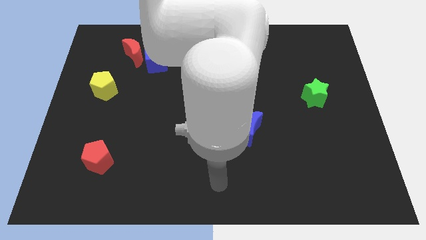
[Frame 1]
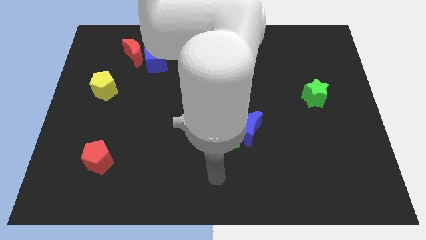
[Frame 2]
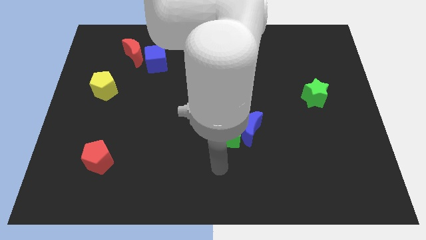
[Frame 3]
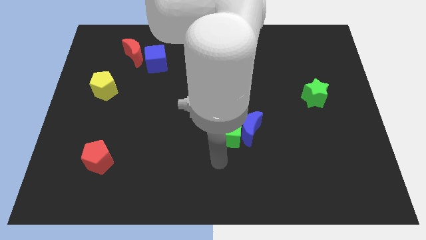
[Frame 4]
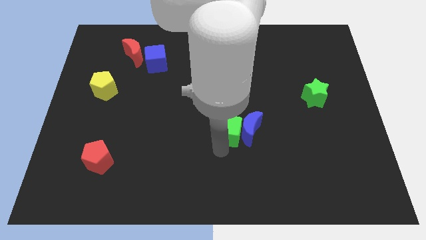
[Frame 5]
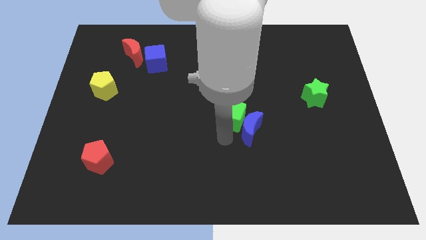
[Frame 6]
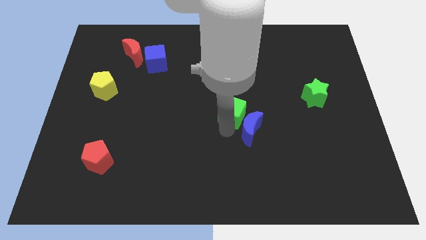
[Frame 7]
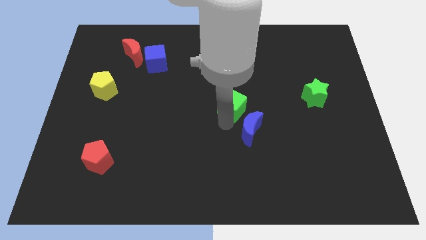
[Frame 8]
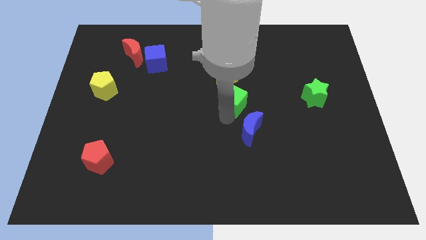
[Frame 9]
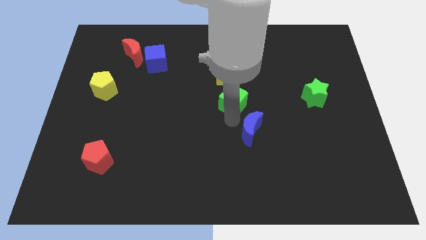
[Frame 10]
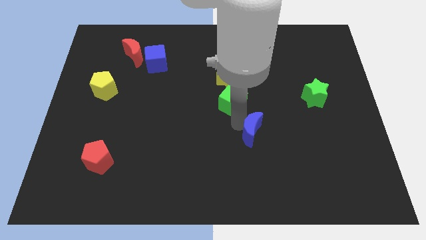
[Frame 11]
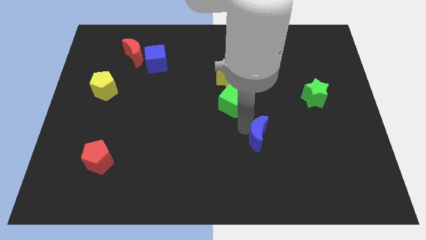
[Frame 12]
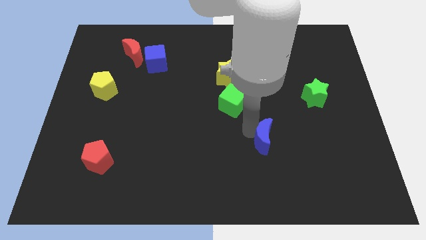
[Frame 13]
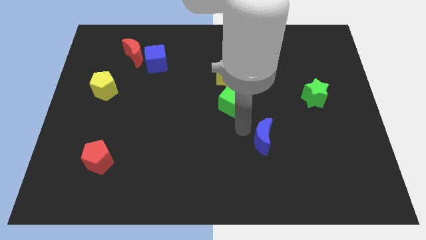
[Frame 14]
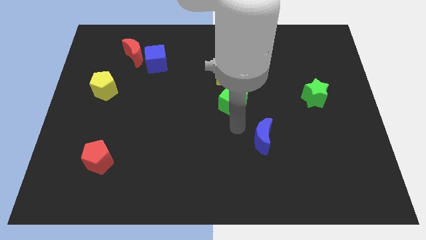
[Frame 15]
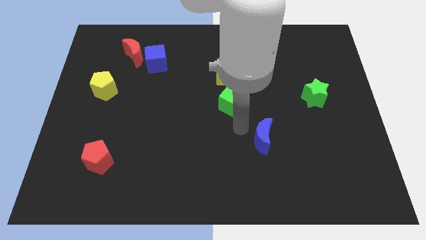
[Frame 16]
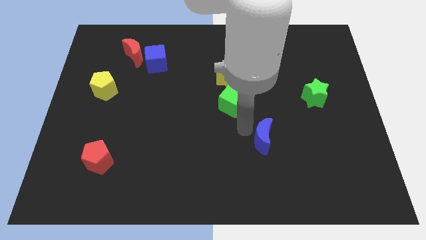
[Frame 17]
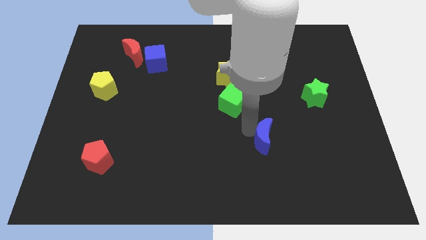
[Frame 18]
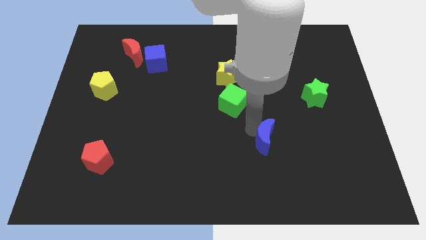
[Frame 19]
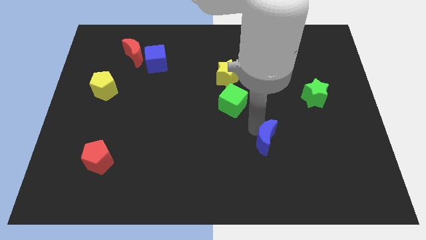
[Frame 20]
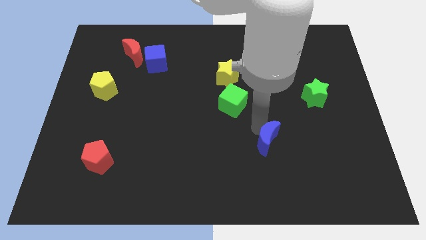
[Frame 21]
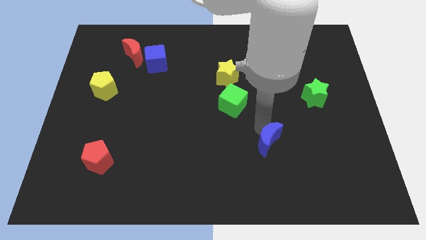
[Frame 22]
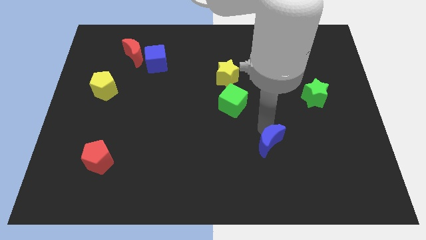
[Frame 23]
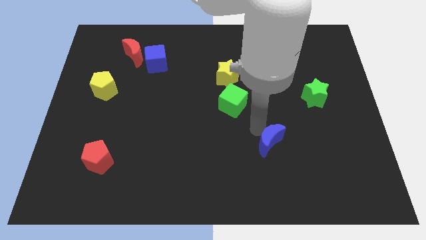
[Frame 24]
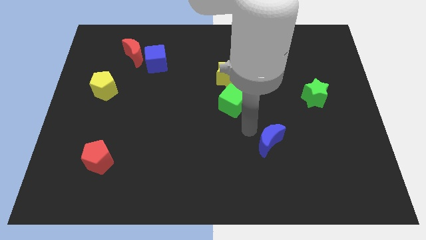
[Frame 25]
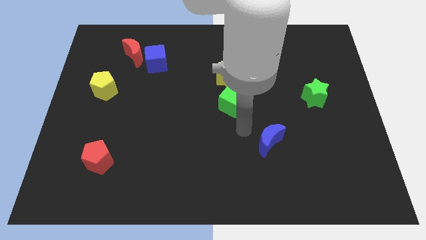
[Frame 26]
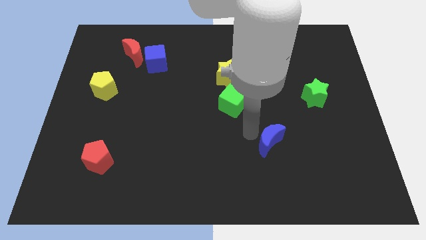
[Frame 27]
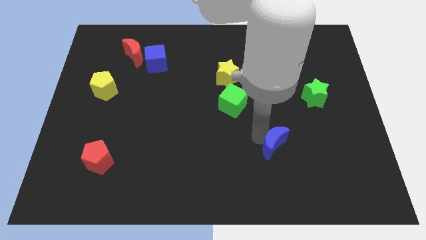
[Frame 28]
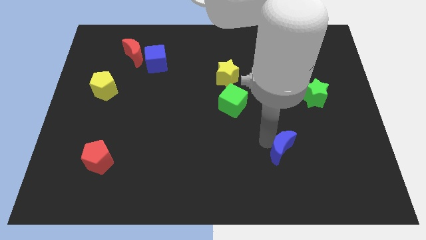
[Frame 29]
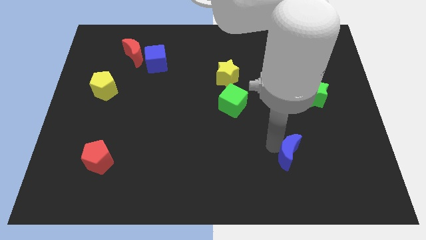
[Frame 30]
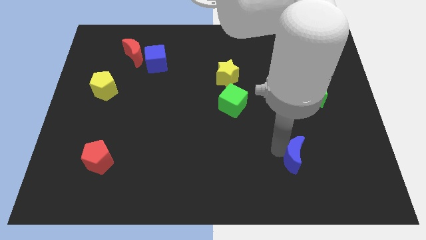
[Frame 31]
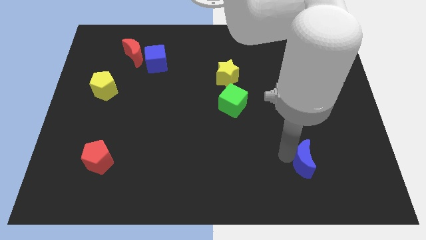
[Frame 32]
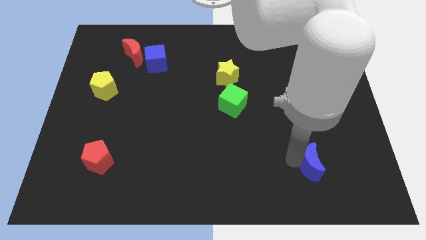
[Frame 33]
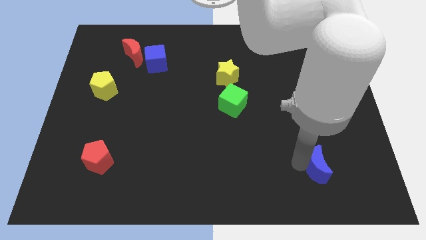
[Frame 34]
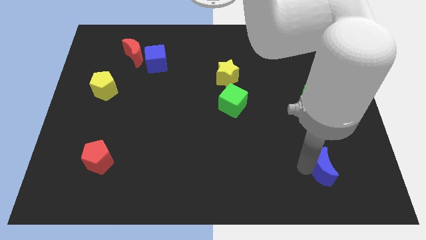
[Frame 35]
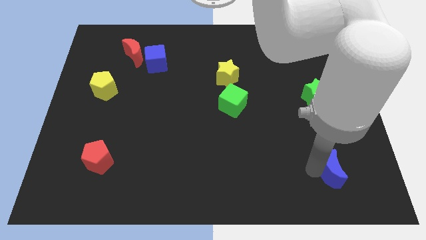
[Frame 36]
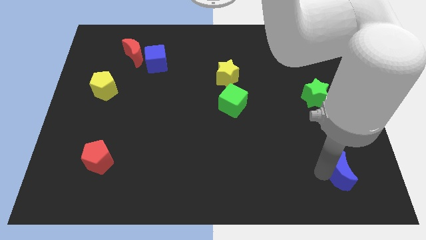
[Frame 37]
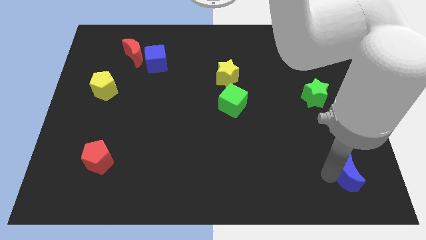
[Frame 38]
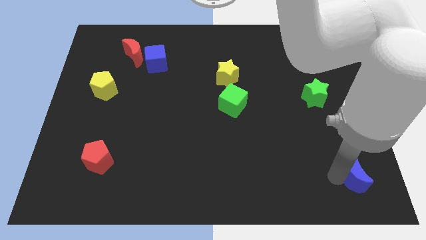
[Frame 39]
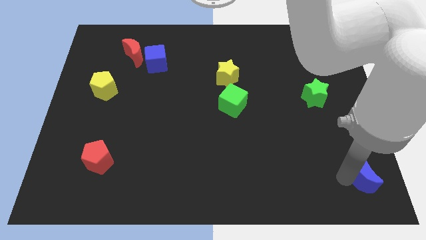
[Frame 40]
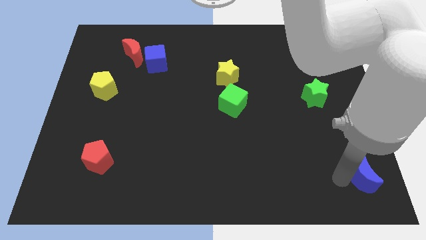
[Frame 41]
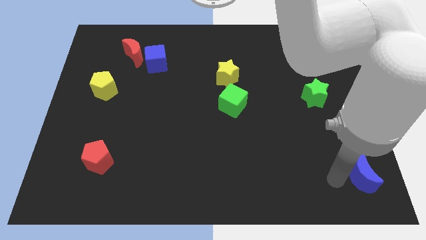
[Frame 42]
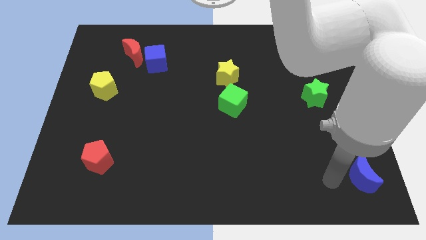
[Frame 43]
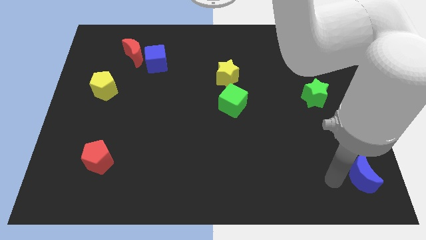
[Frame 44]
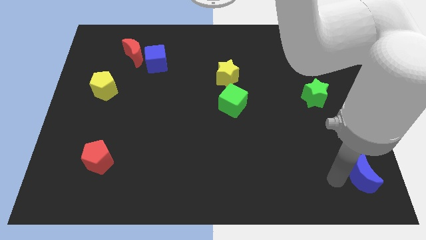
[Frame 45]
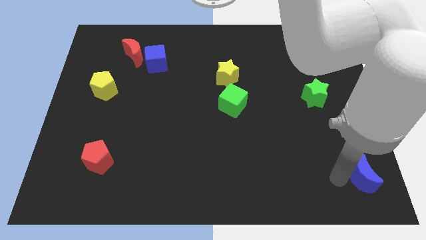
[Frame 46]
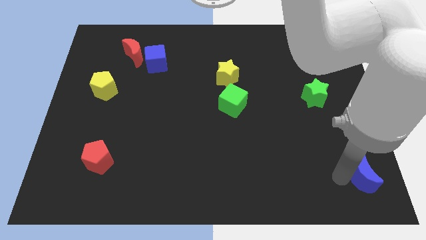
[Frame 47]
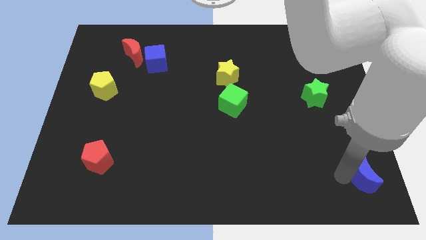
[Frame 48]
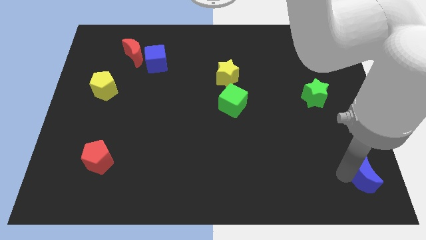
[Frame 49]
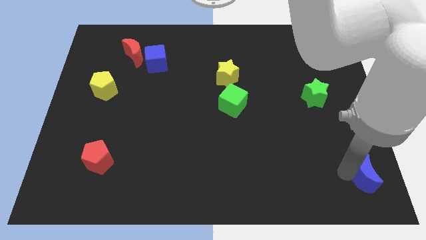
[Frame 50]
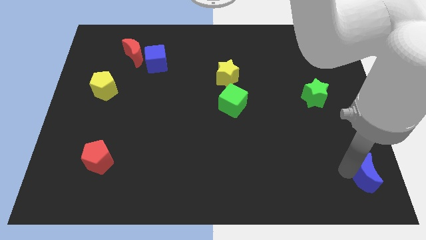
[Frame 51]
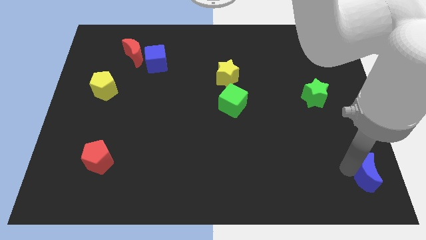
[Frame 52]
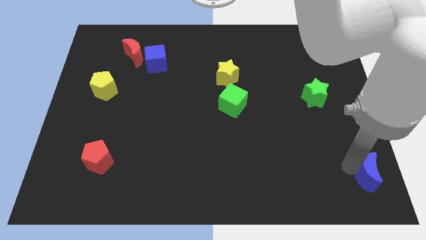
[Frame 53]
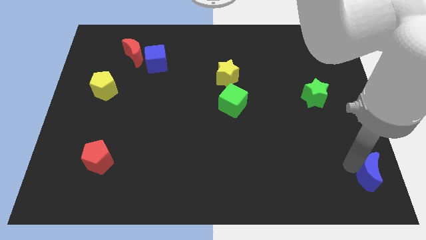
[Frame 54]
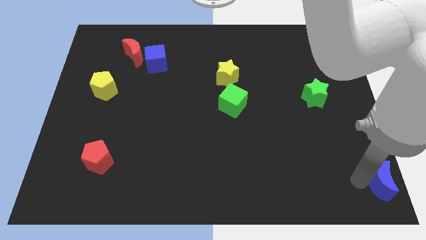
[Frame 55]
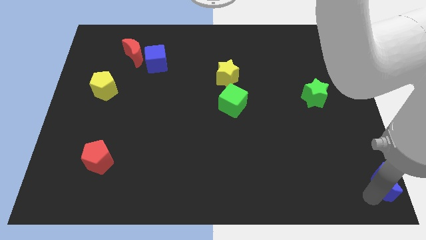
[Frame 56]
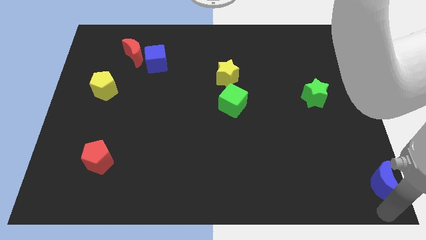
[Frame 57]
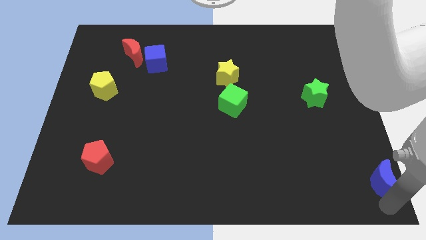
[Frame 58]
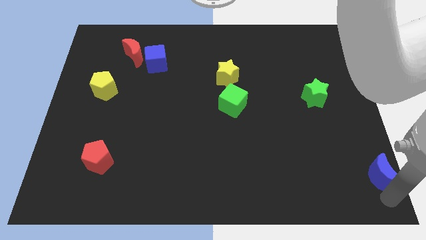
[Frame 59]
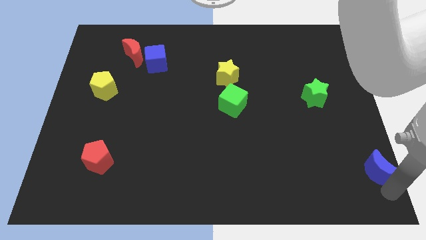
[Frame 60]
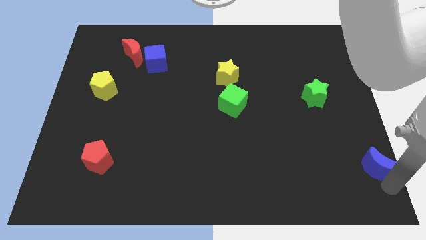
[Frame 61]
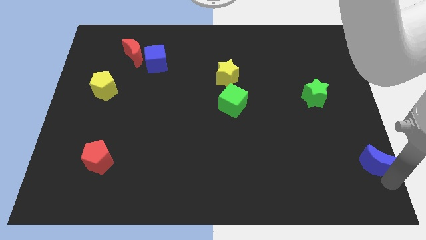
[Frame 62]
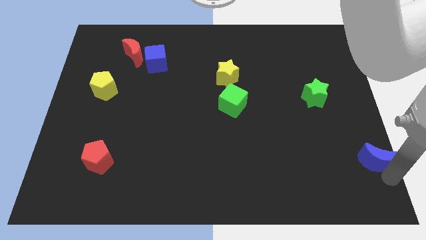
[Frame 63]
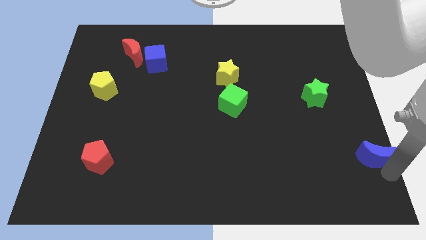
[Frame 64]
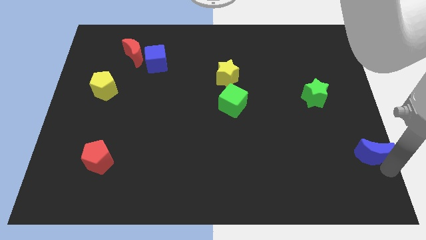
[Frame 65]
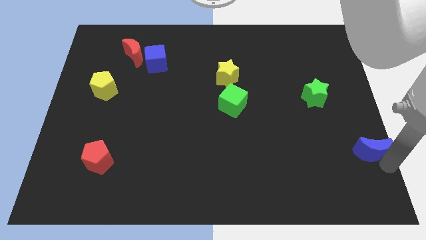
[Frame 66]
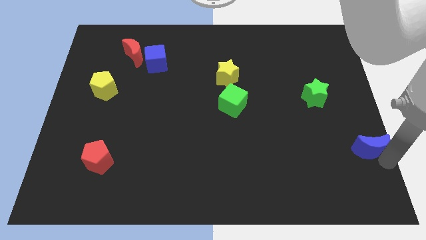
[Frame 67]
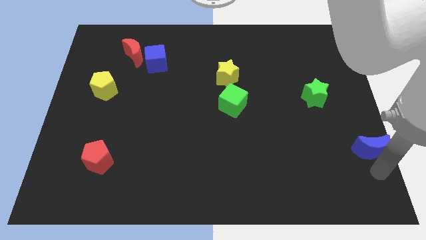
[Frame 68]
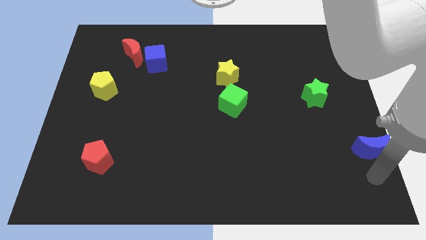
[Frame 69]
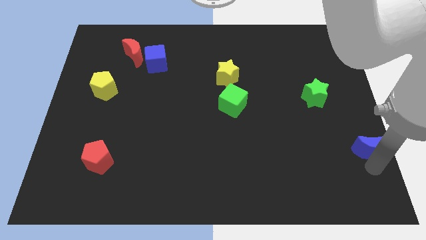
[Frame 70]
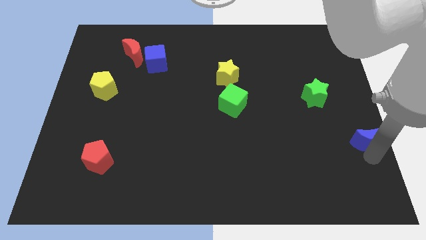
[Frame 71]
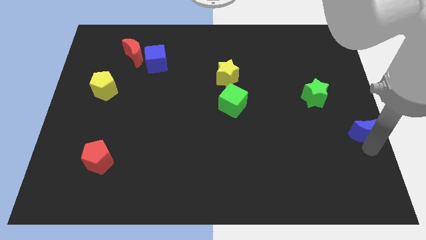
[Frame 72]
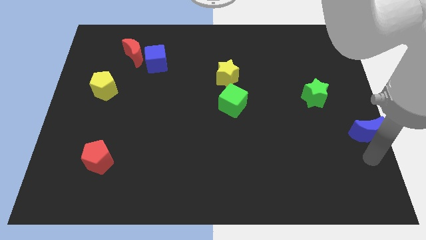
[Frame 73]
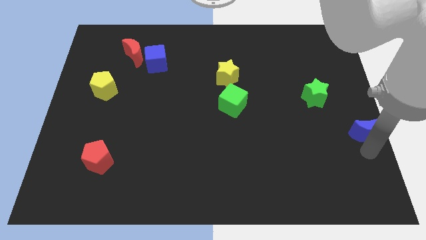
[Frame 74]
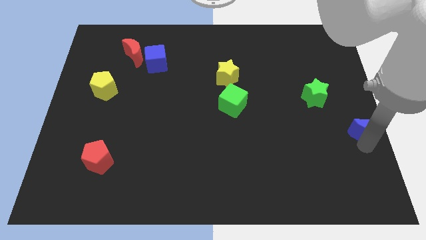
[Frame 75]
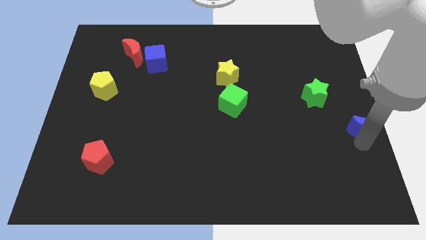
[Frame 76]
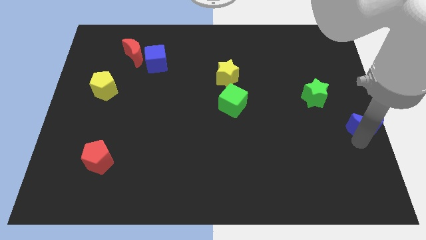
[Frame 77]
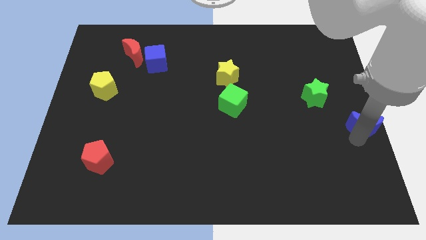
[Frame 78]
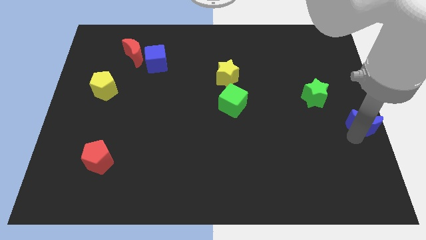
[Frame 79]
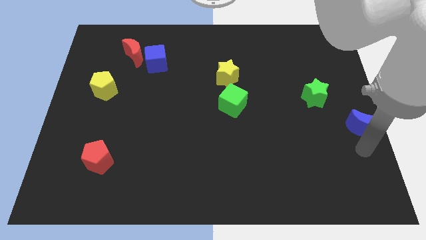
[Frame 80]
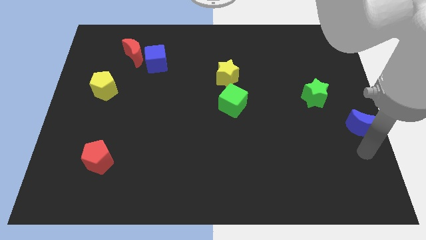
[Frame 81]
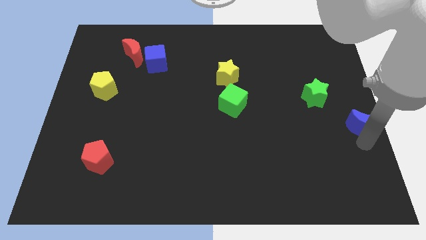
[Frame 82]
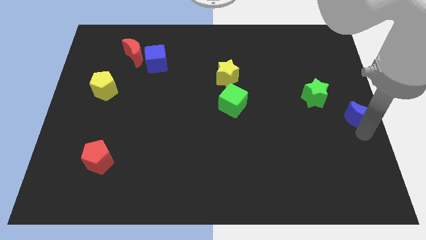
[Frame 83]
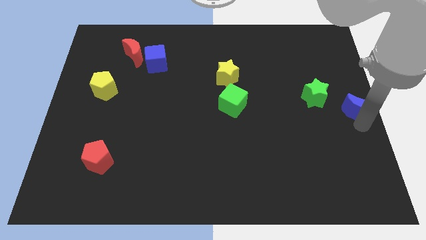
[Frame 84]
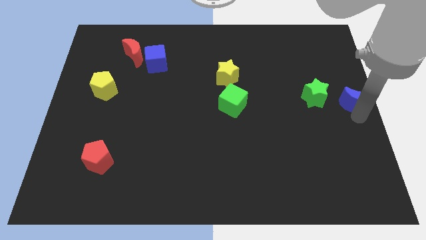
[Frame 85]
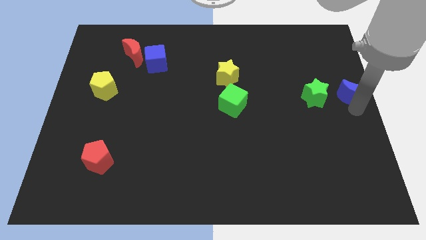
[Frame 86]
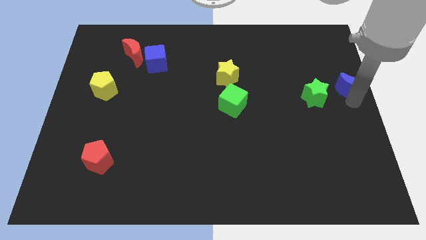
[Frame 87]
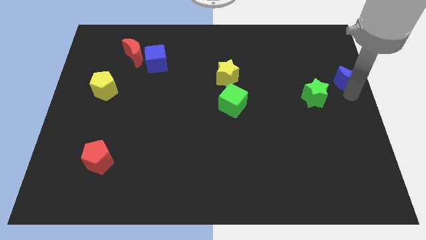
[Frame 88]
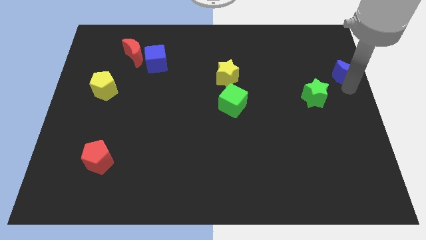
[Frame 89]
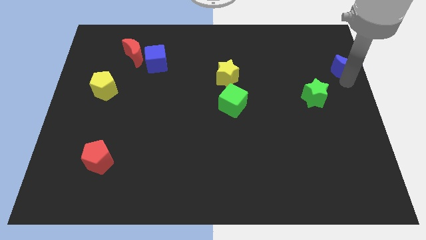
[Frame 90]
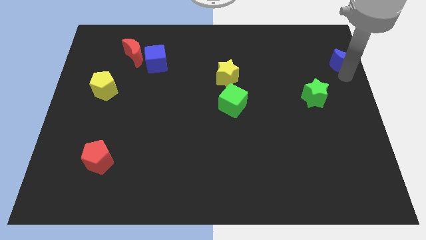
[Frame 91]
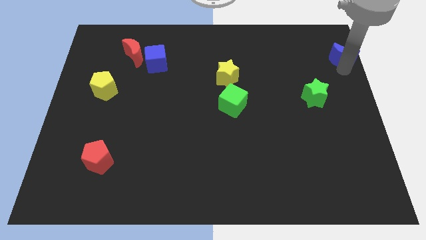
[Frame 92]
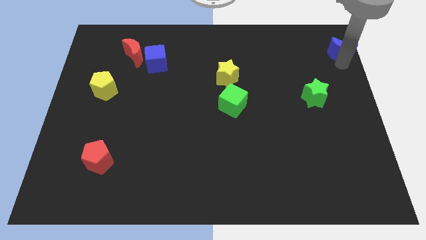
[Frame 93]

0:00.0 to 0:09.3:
put the blue moon to the top right
